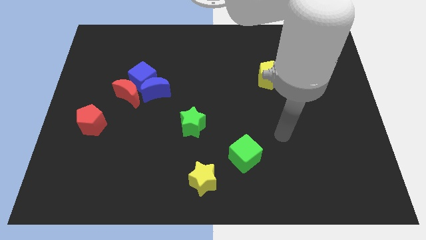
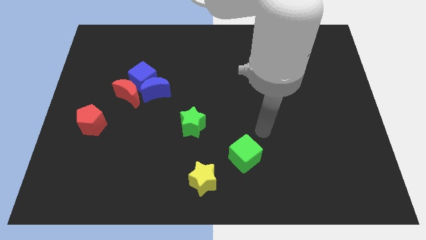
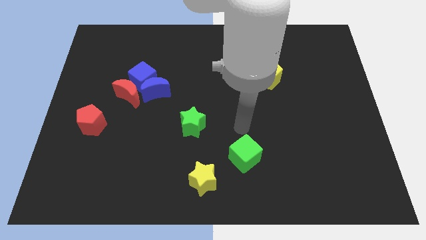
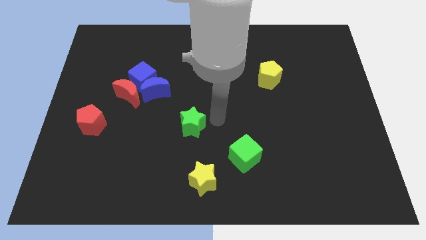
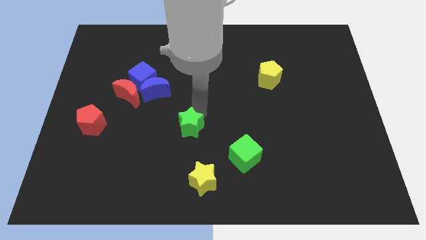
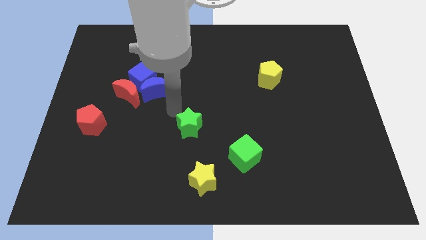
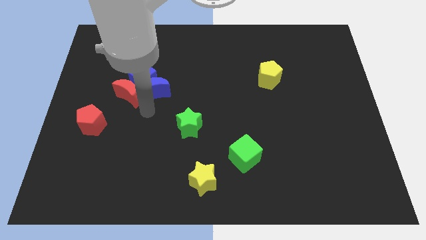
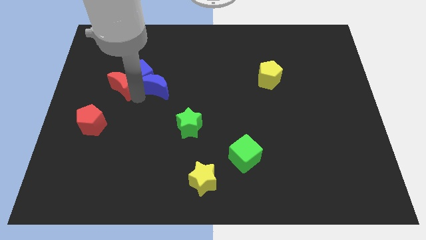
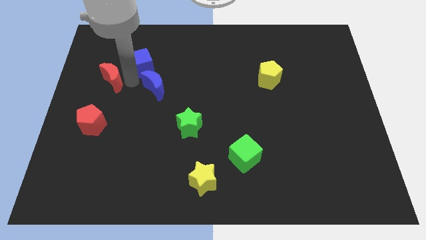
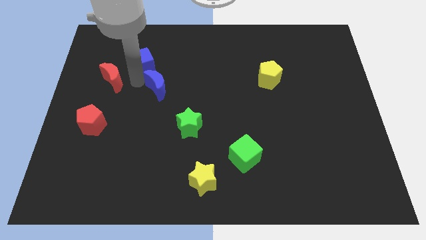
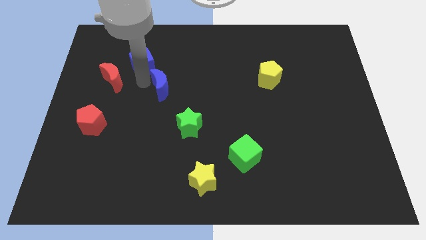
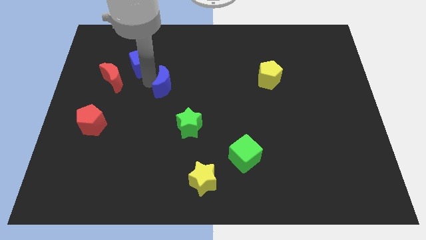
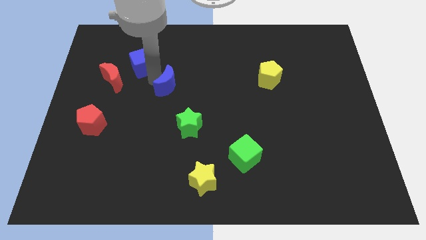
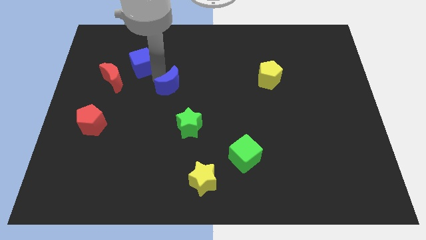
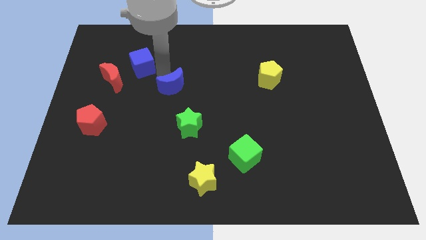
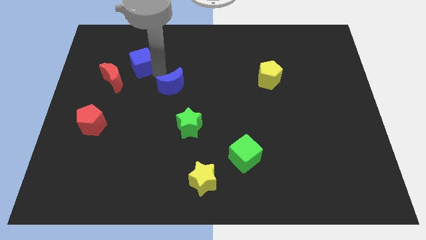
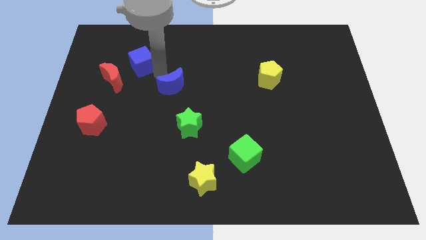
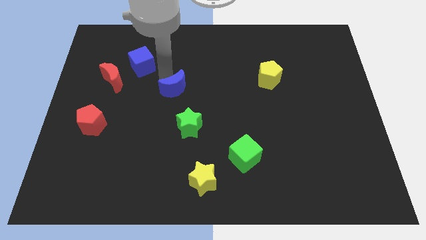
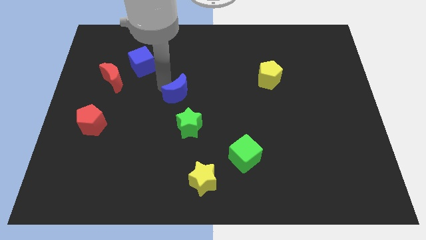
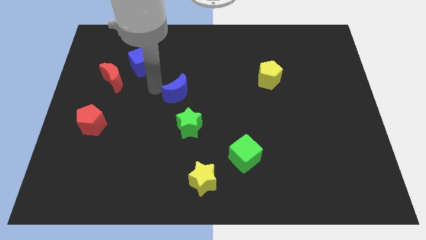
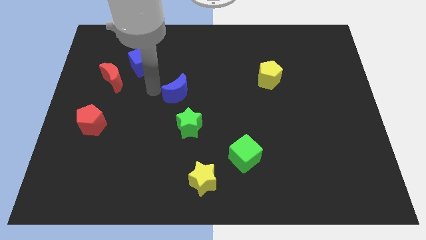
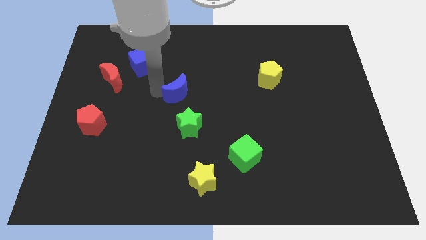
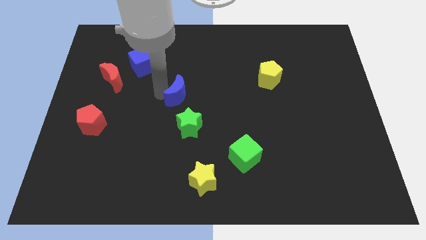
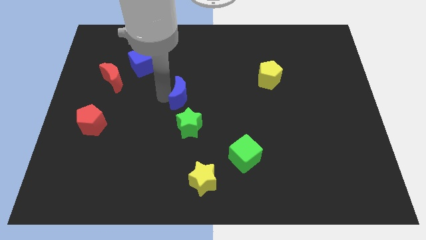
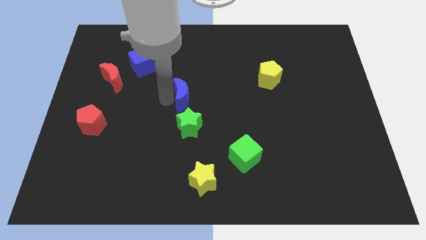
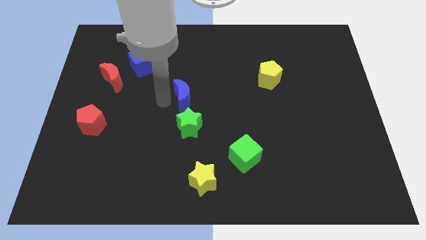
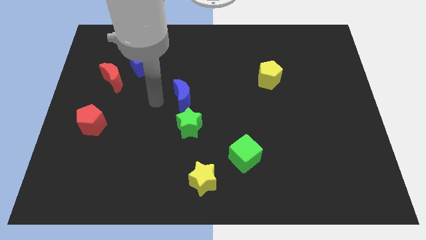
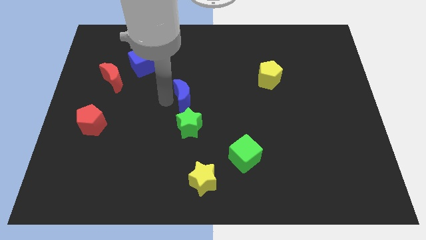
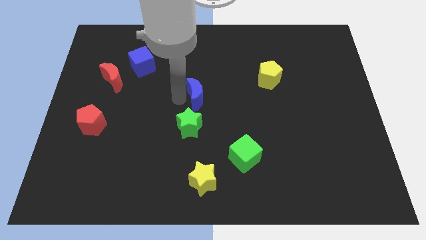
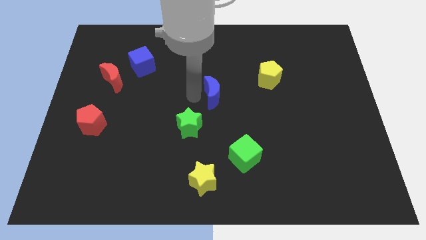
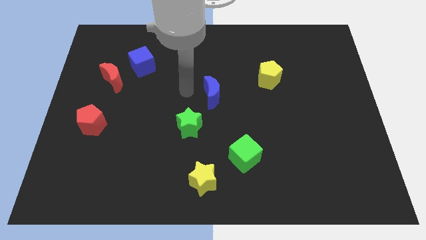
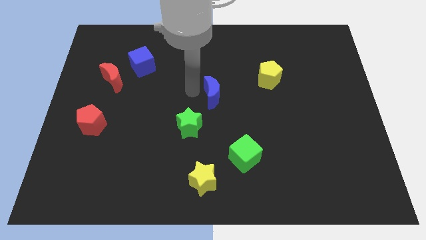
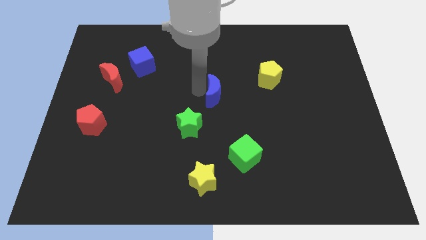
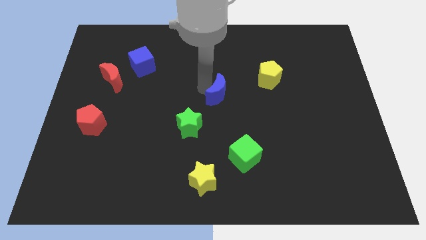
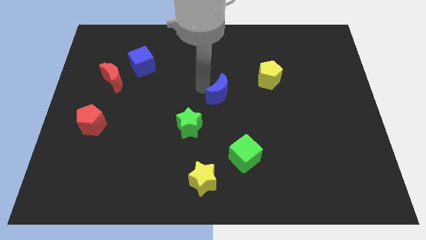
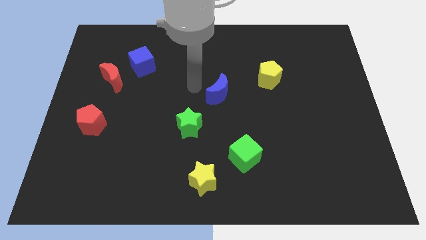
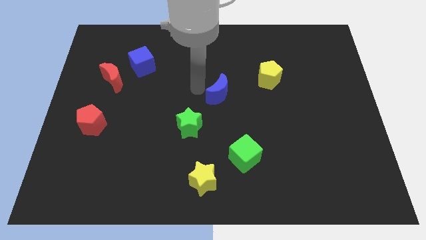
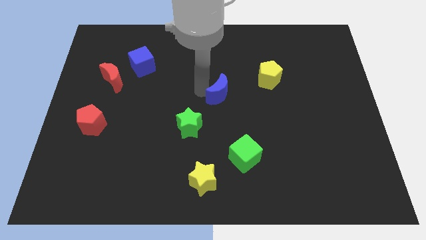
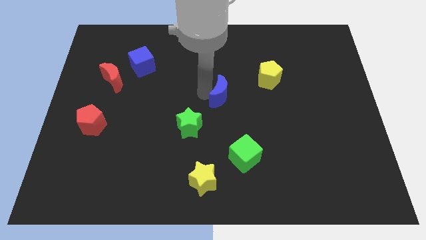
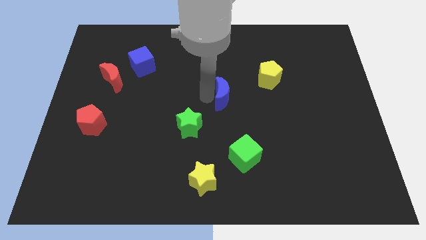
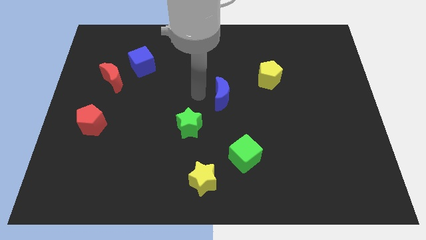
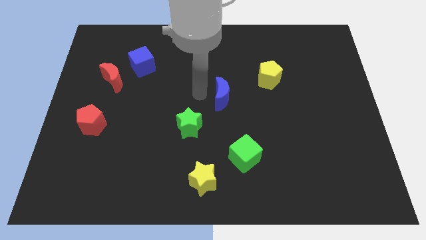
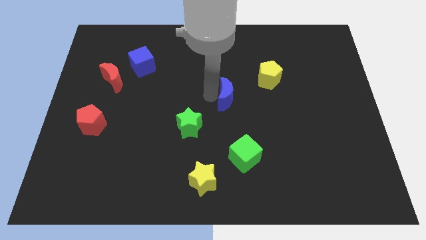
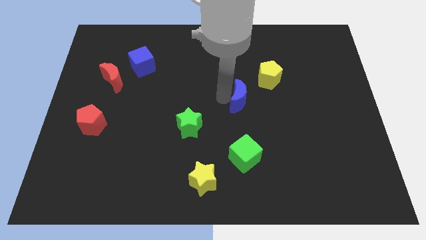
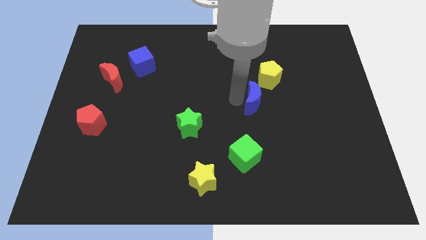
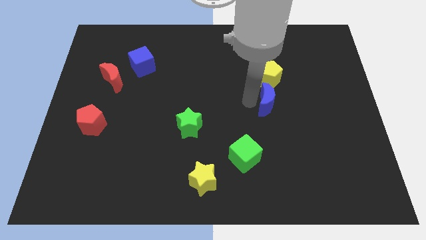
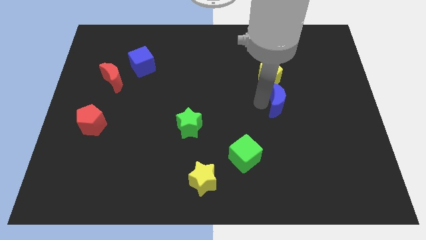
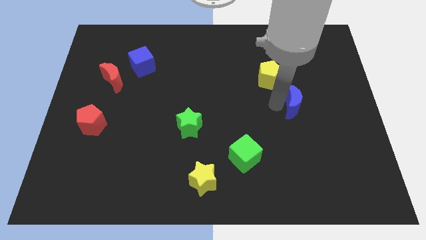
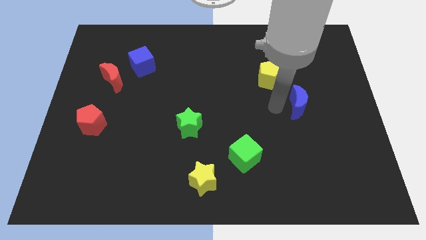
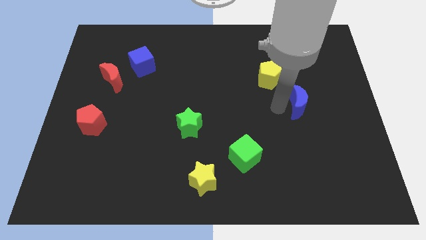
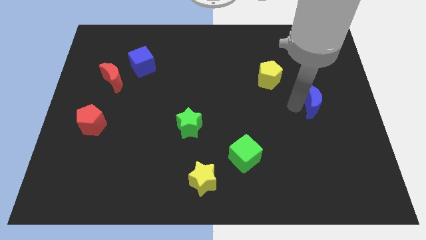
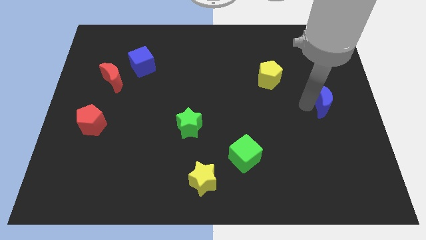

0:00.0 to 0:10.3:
push the blue moon to the right side

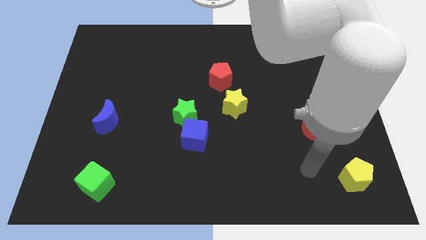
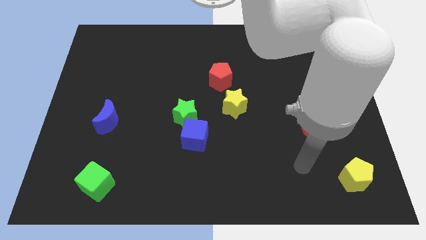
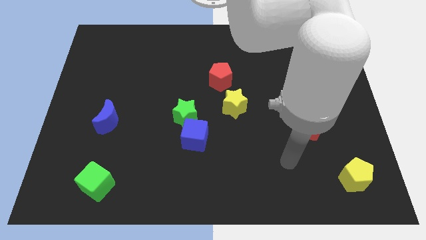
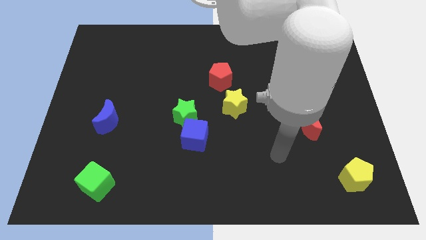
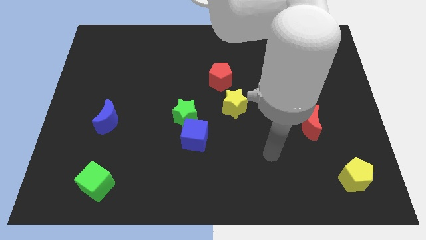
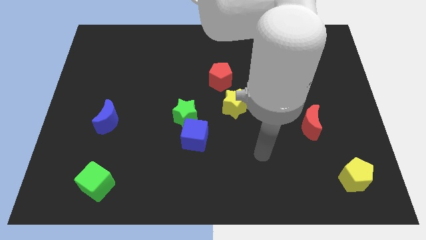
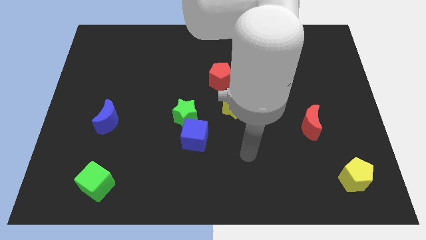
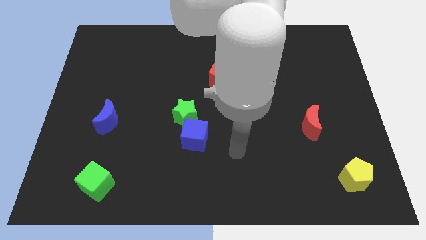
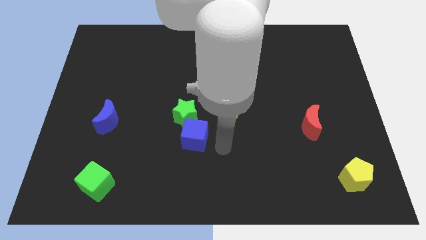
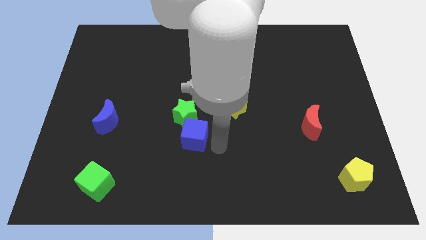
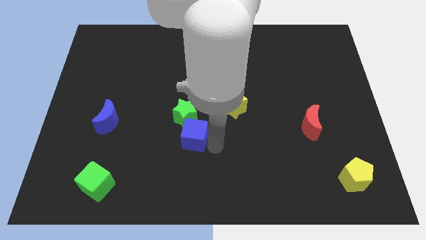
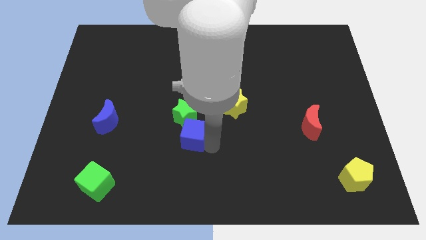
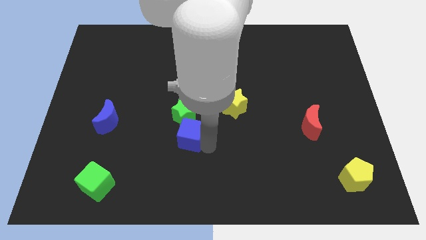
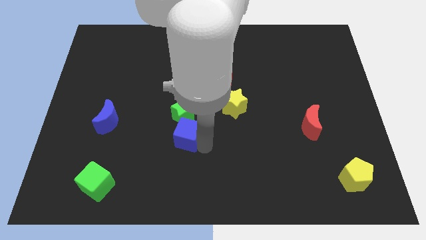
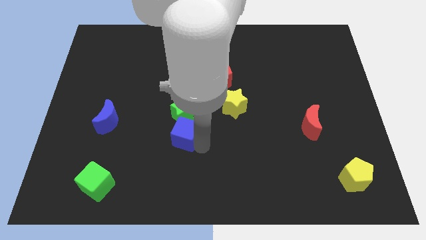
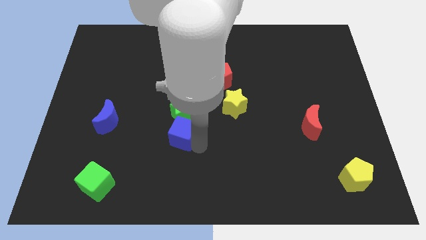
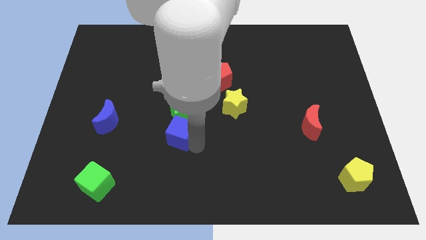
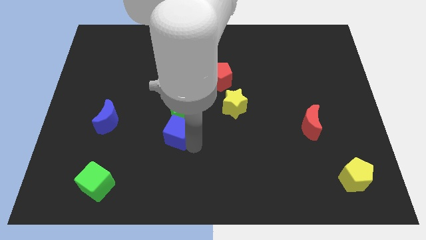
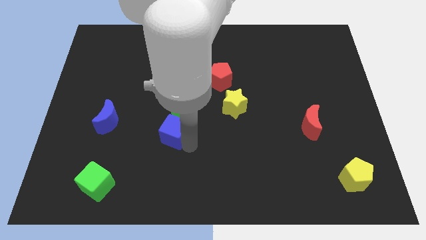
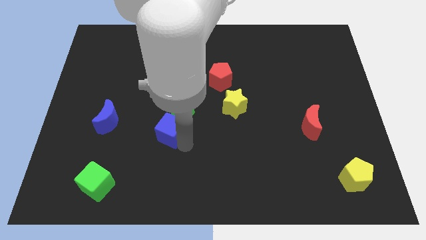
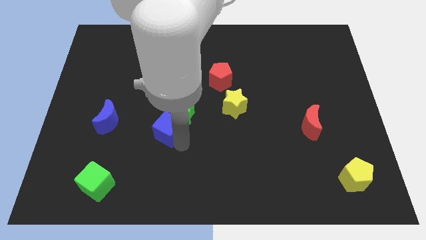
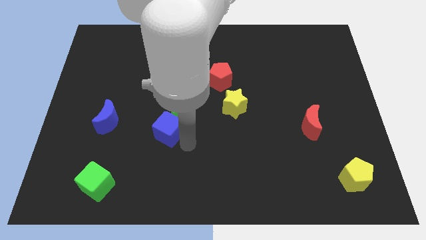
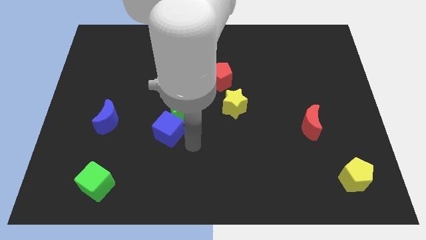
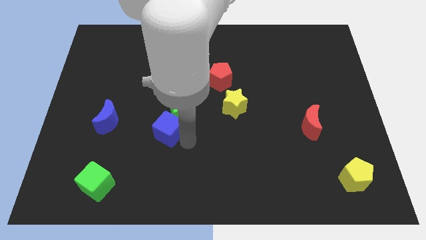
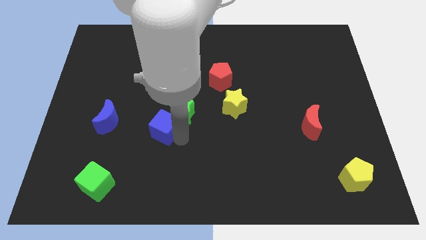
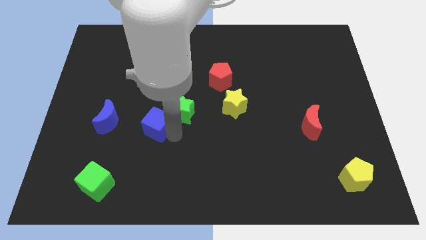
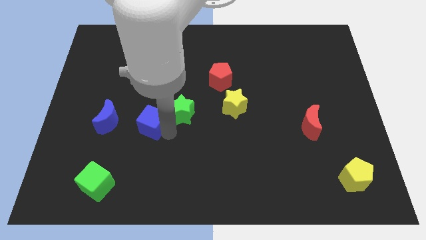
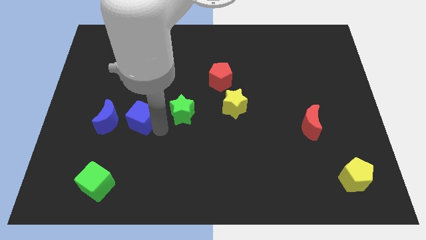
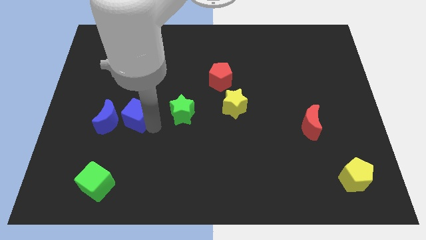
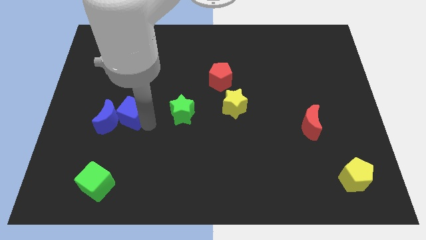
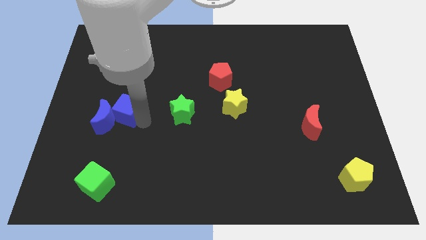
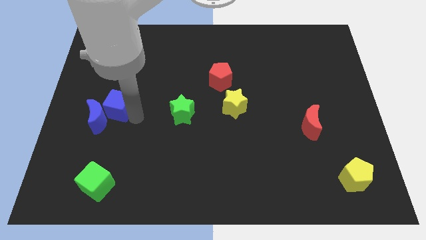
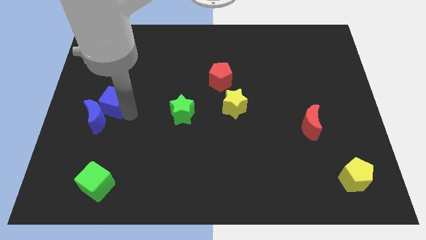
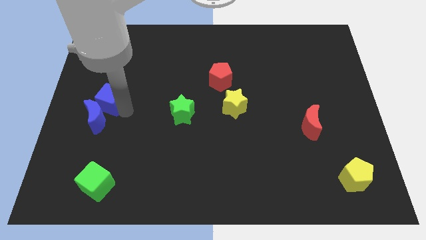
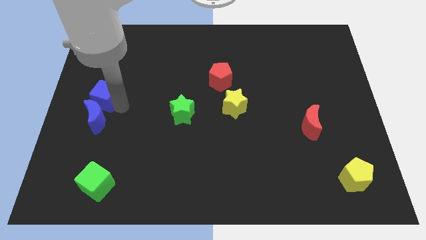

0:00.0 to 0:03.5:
put the blue cube to the left side of the board
